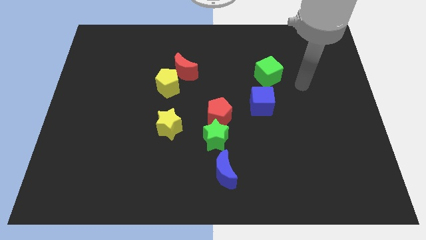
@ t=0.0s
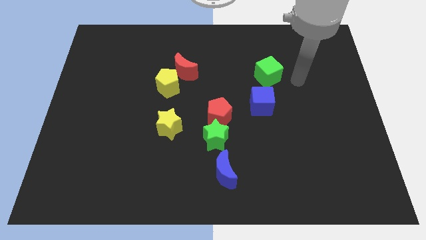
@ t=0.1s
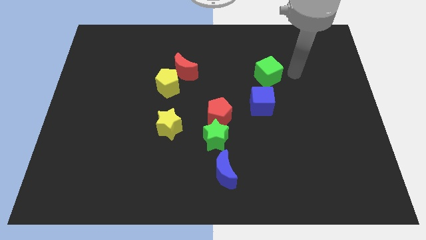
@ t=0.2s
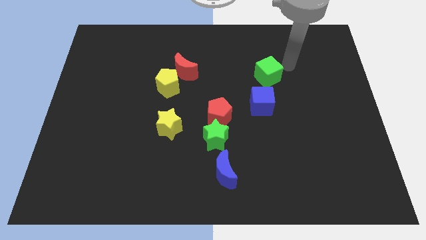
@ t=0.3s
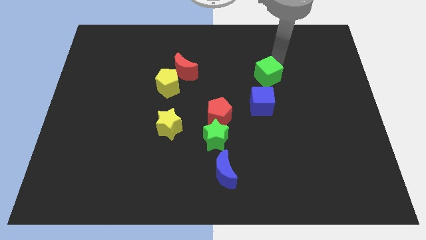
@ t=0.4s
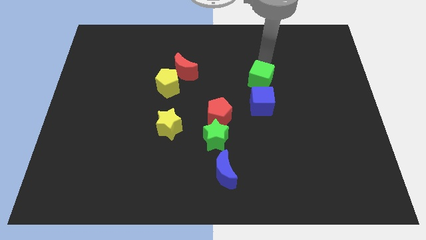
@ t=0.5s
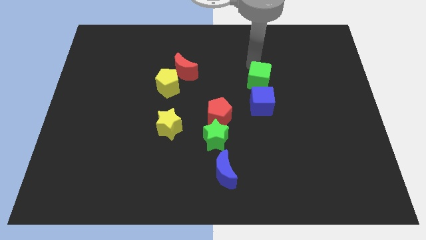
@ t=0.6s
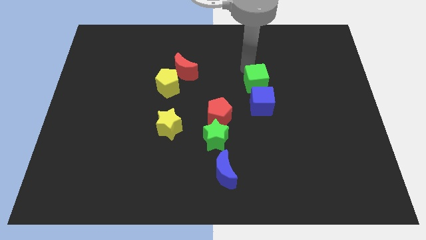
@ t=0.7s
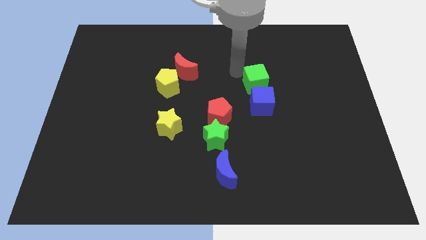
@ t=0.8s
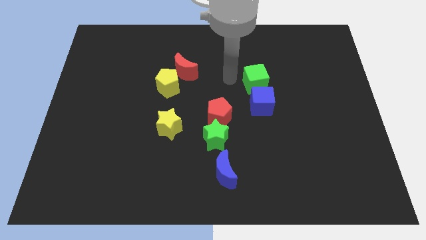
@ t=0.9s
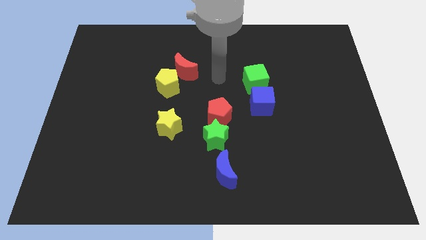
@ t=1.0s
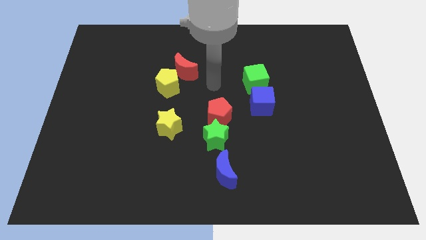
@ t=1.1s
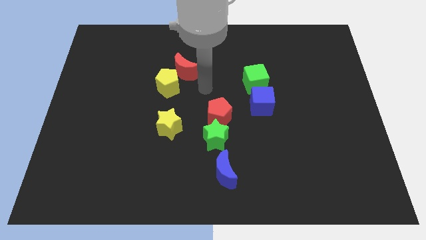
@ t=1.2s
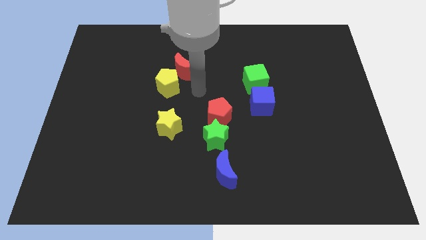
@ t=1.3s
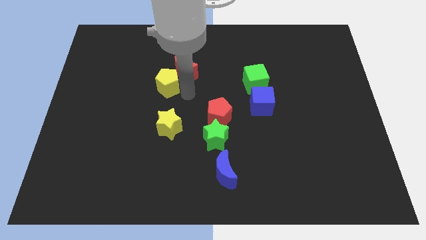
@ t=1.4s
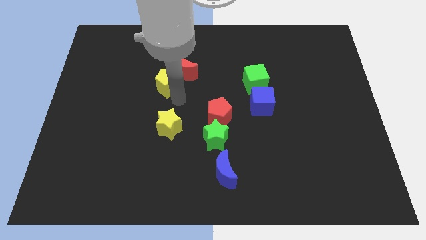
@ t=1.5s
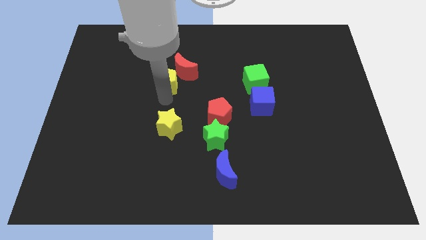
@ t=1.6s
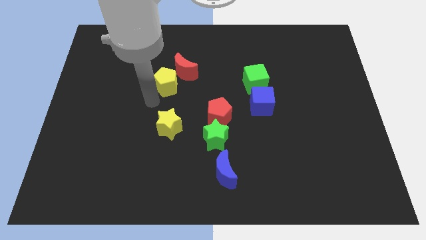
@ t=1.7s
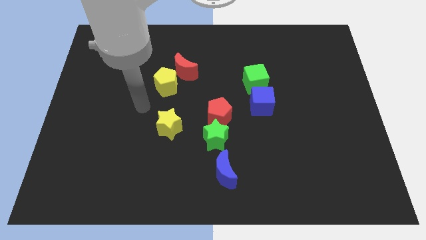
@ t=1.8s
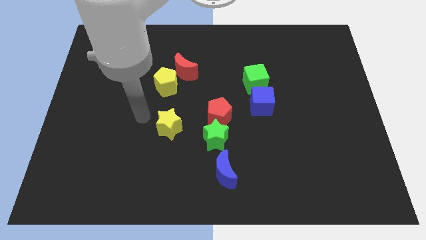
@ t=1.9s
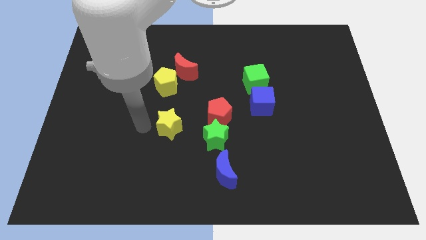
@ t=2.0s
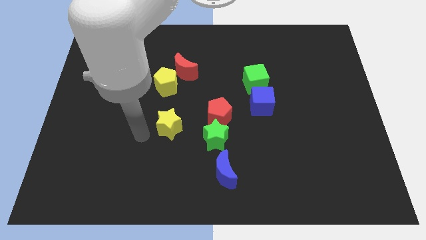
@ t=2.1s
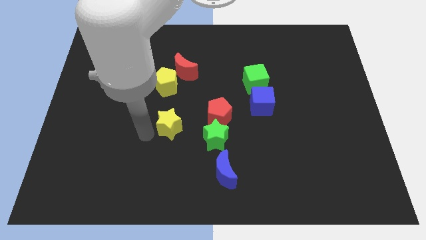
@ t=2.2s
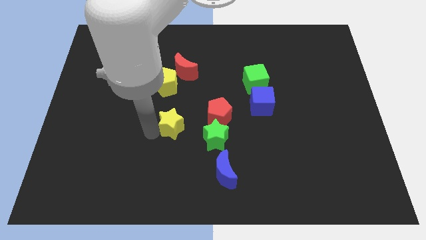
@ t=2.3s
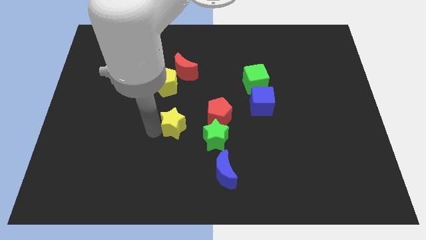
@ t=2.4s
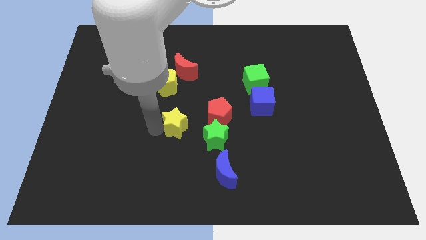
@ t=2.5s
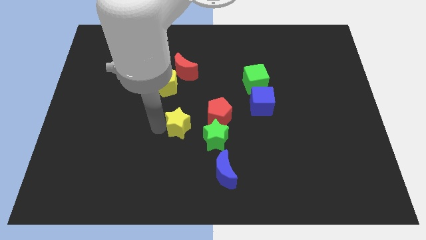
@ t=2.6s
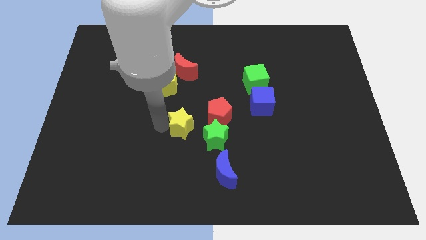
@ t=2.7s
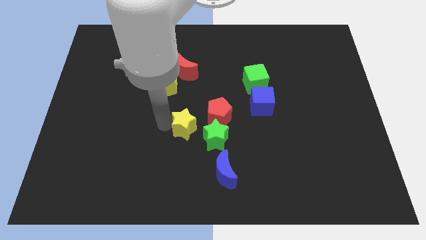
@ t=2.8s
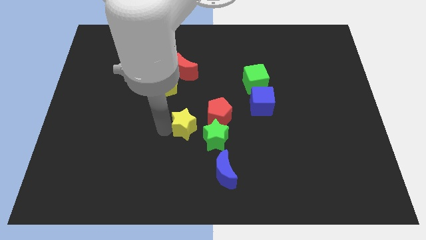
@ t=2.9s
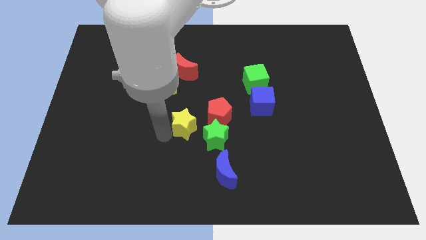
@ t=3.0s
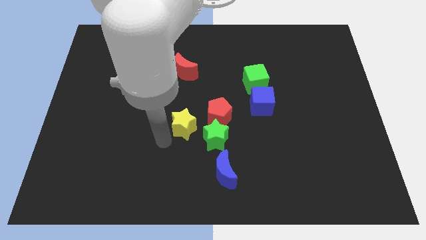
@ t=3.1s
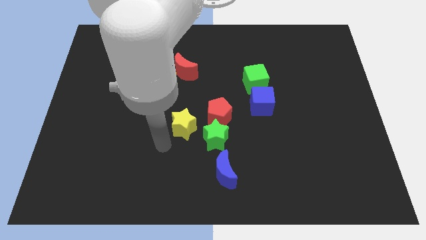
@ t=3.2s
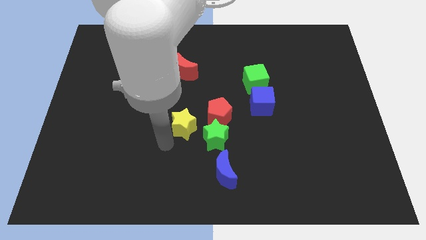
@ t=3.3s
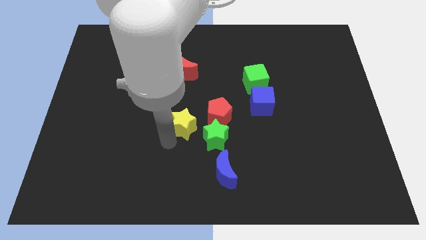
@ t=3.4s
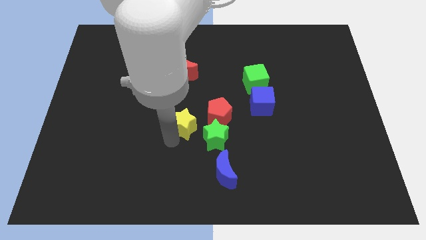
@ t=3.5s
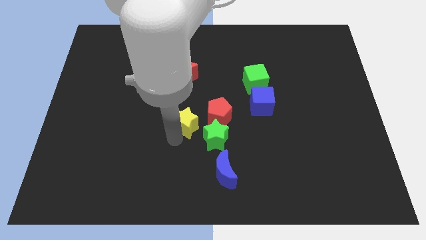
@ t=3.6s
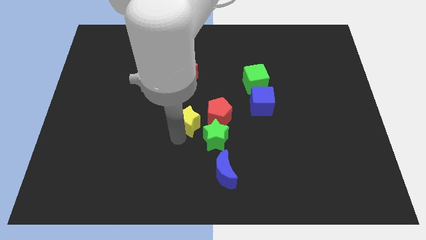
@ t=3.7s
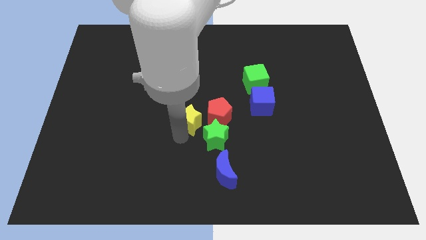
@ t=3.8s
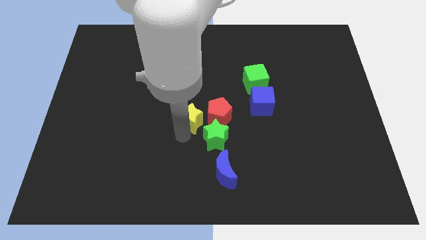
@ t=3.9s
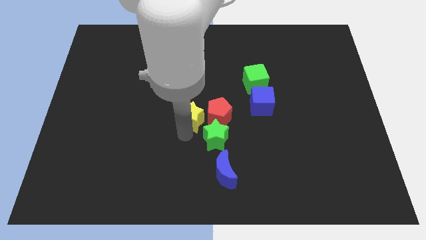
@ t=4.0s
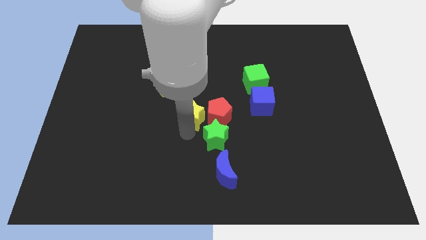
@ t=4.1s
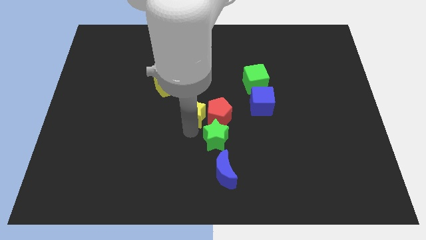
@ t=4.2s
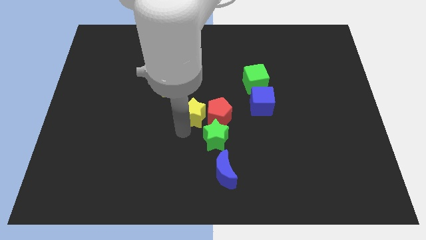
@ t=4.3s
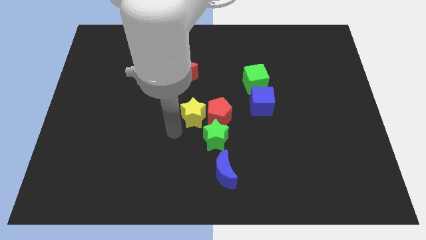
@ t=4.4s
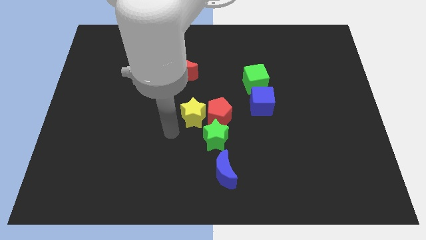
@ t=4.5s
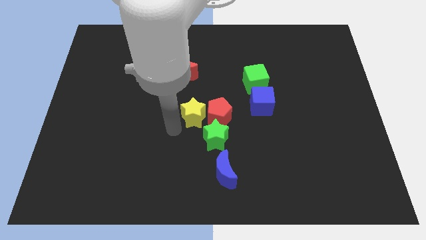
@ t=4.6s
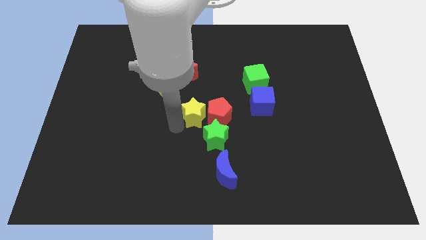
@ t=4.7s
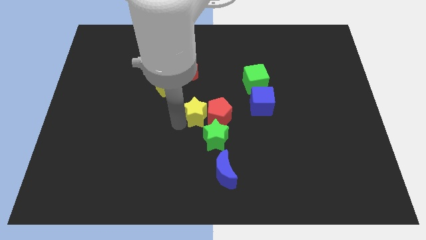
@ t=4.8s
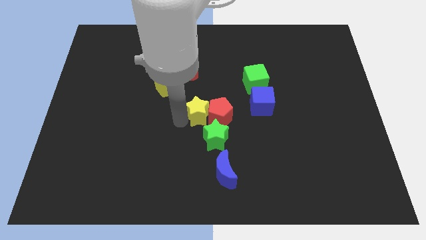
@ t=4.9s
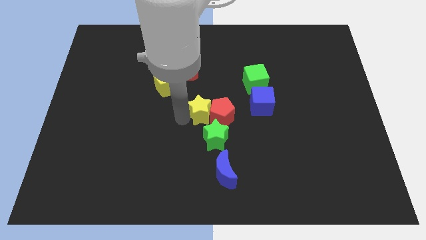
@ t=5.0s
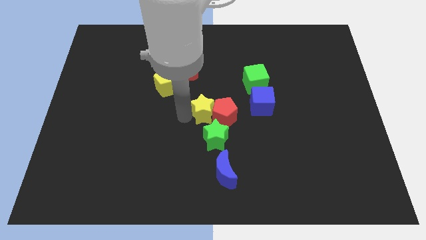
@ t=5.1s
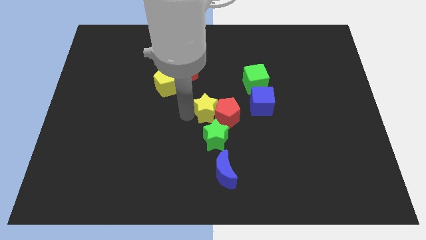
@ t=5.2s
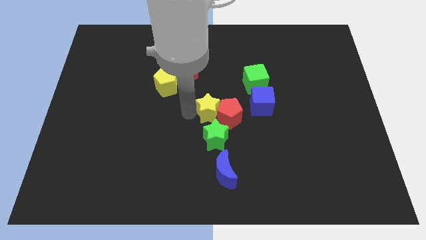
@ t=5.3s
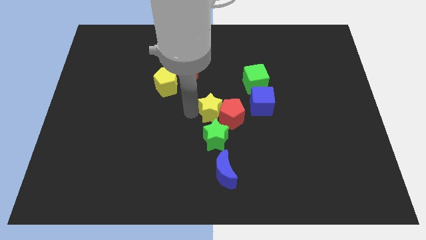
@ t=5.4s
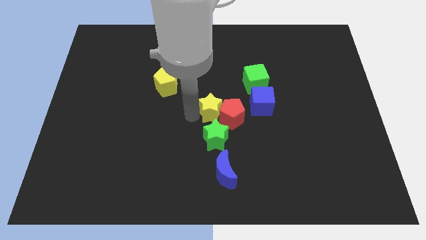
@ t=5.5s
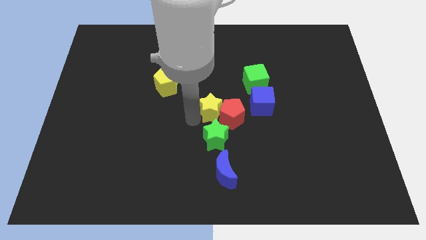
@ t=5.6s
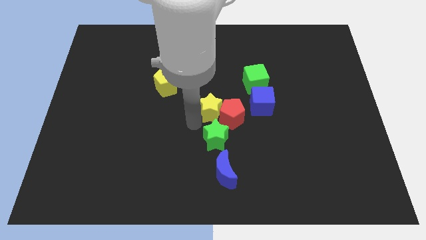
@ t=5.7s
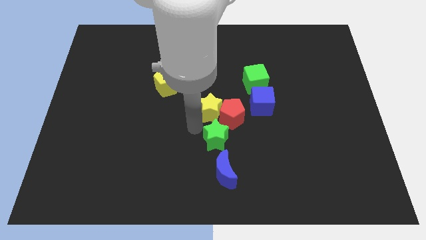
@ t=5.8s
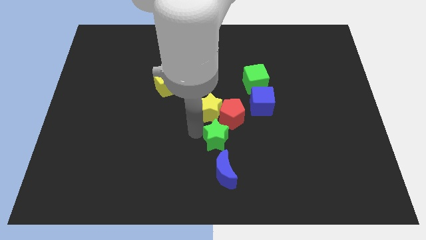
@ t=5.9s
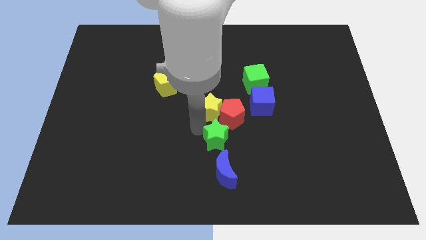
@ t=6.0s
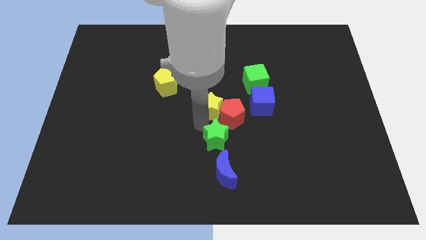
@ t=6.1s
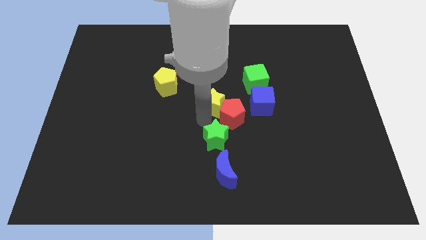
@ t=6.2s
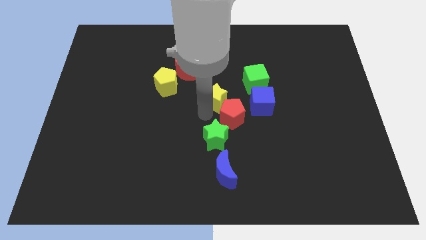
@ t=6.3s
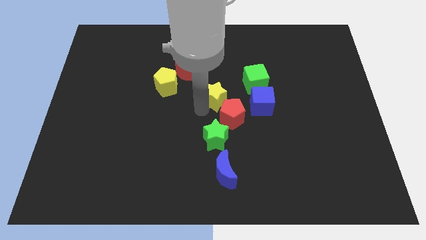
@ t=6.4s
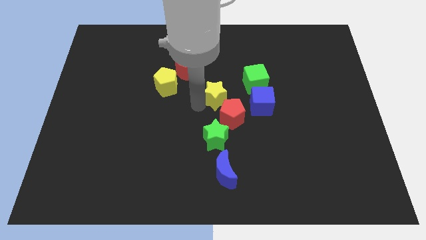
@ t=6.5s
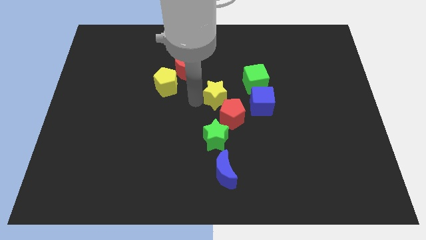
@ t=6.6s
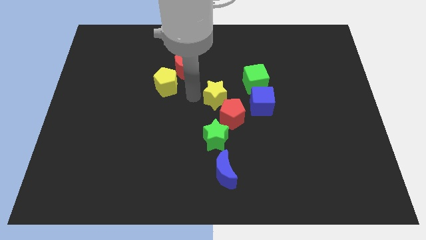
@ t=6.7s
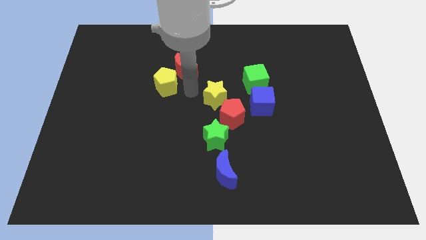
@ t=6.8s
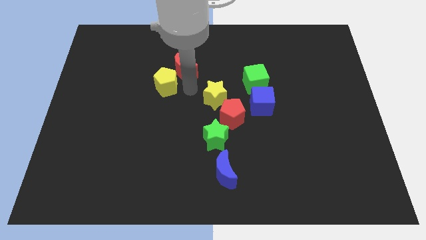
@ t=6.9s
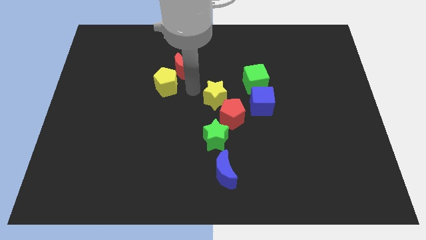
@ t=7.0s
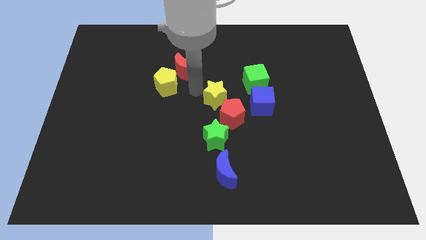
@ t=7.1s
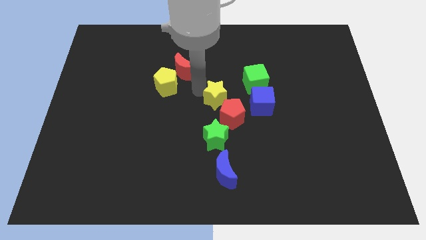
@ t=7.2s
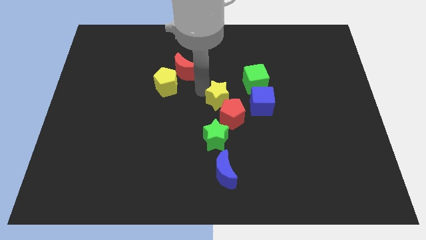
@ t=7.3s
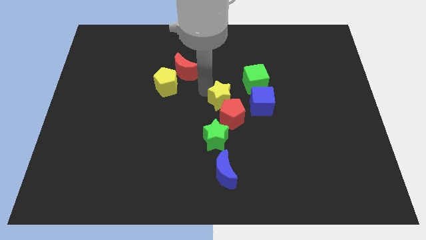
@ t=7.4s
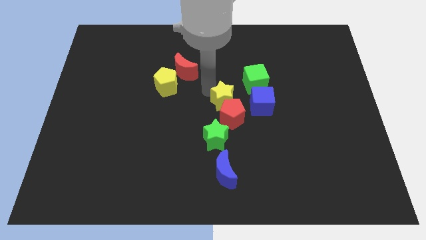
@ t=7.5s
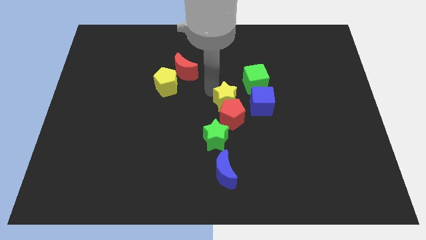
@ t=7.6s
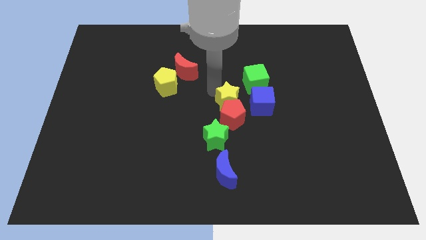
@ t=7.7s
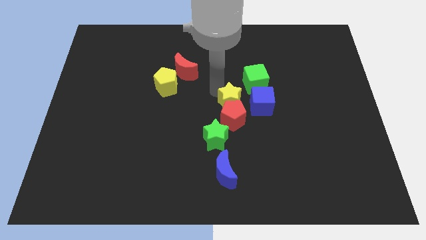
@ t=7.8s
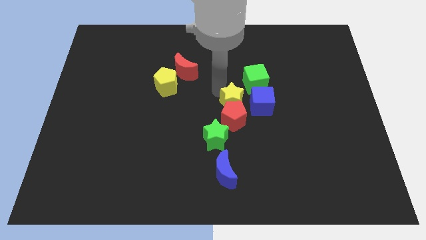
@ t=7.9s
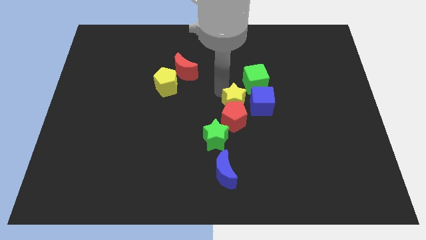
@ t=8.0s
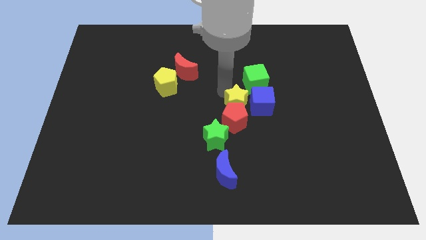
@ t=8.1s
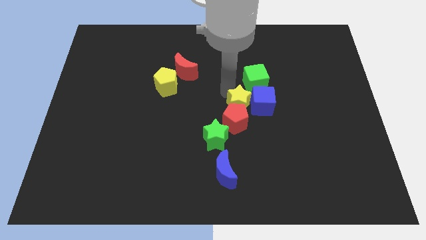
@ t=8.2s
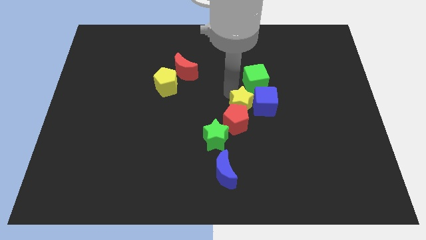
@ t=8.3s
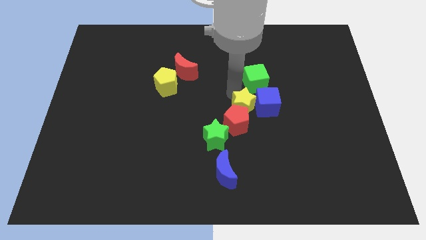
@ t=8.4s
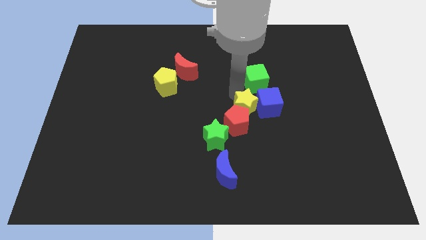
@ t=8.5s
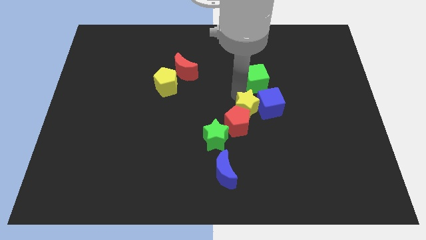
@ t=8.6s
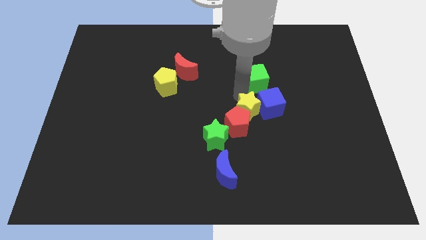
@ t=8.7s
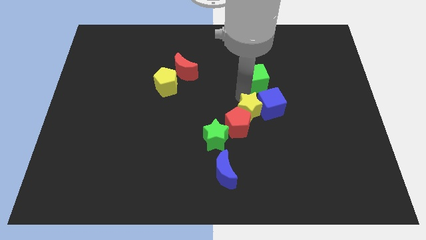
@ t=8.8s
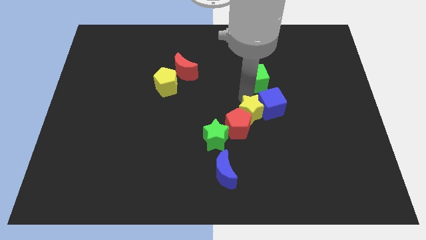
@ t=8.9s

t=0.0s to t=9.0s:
move the yellow star to the right of the red pentagon
